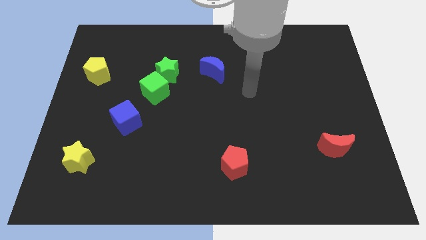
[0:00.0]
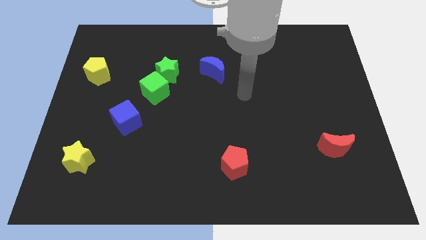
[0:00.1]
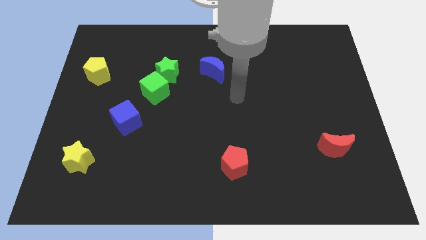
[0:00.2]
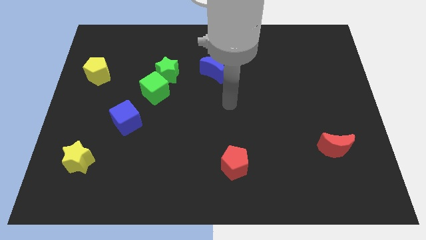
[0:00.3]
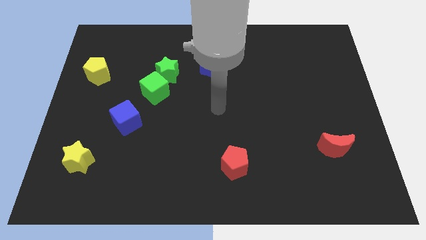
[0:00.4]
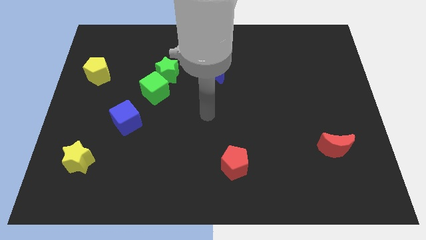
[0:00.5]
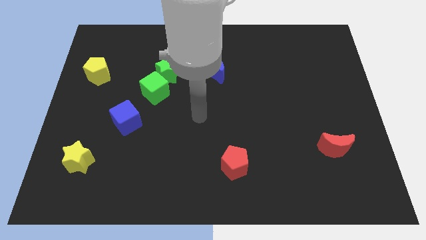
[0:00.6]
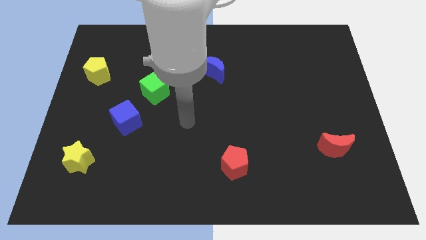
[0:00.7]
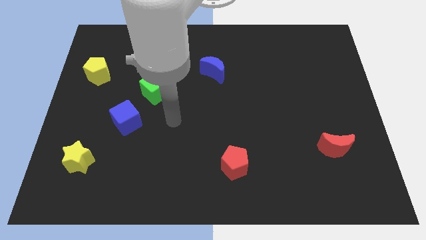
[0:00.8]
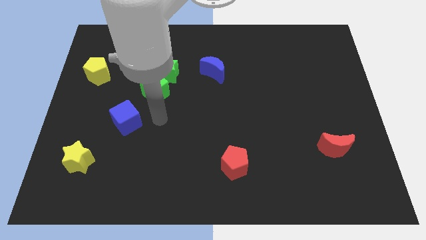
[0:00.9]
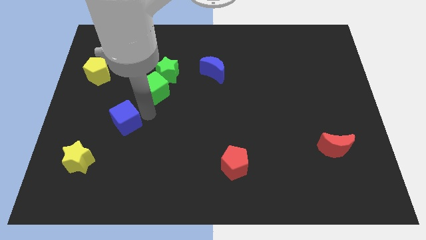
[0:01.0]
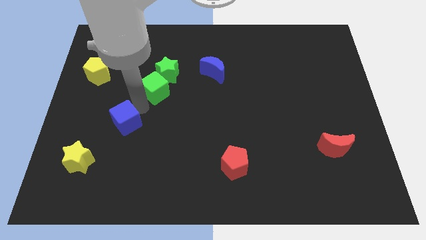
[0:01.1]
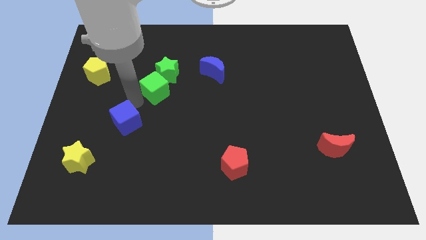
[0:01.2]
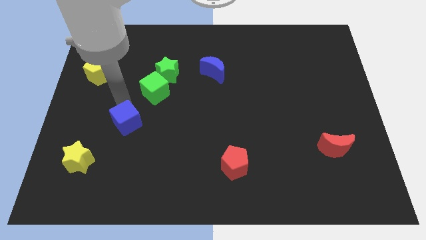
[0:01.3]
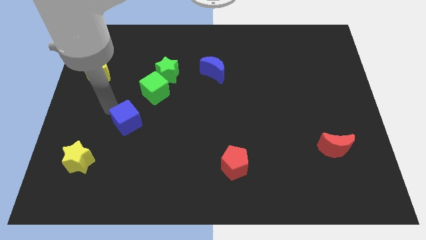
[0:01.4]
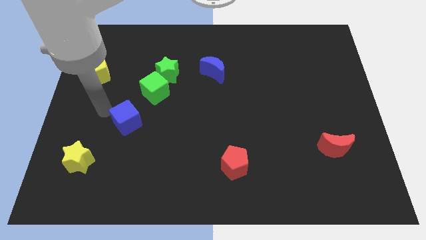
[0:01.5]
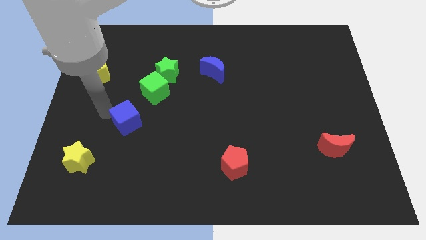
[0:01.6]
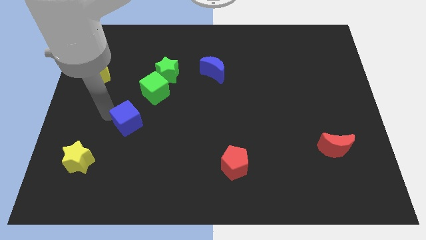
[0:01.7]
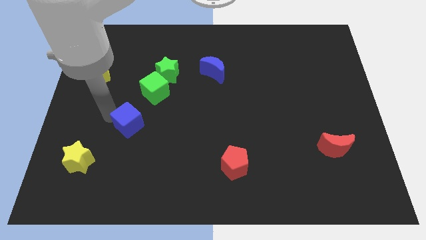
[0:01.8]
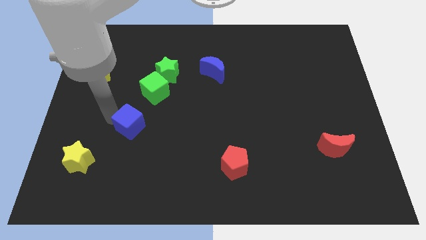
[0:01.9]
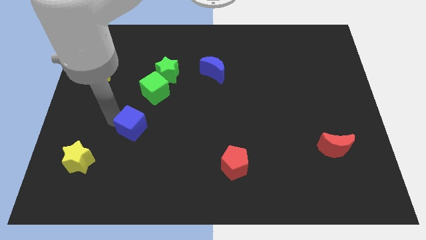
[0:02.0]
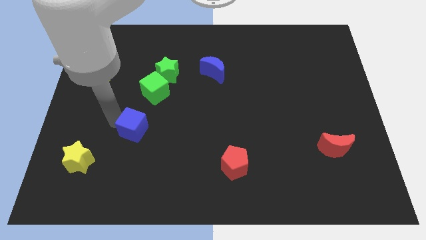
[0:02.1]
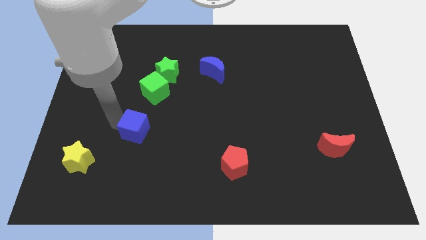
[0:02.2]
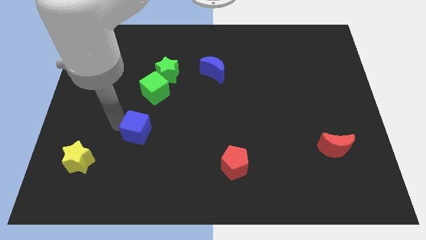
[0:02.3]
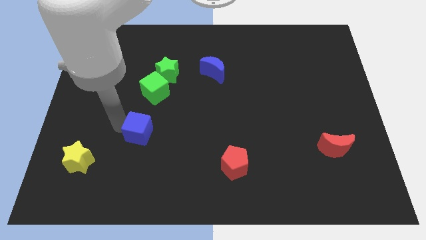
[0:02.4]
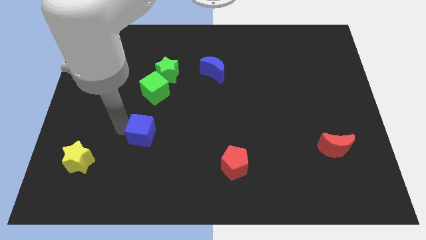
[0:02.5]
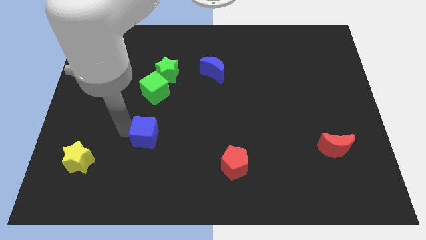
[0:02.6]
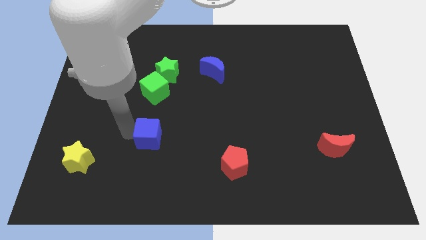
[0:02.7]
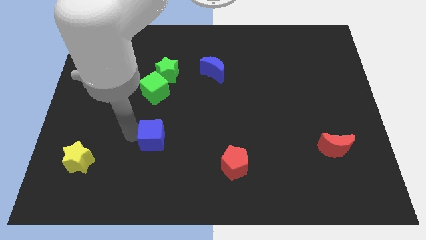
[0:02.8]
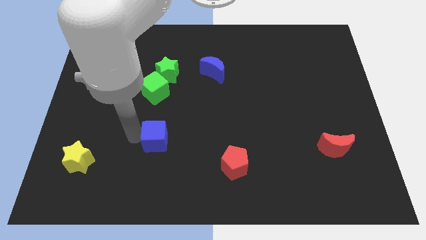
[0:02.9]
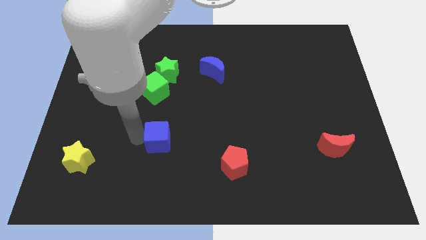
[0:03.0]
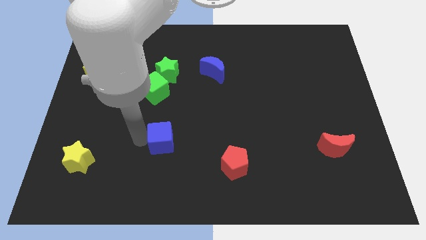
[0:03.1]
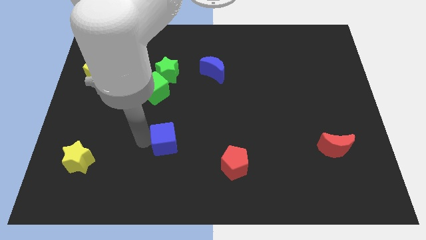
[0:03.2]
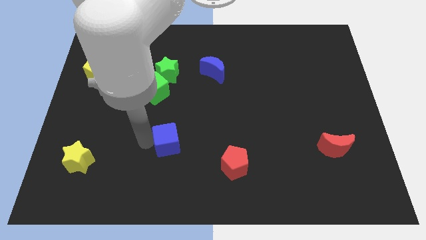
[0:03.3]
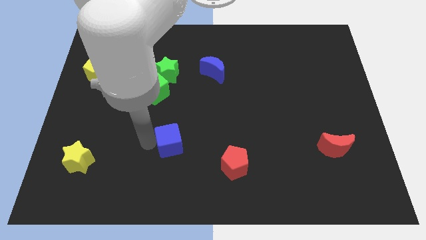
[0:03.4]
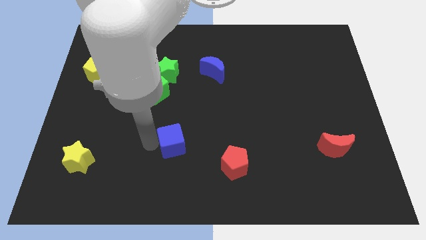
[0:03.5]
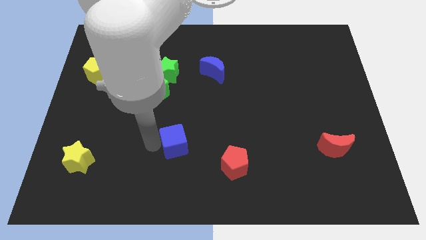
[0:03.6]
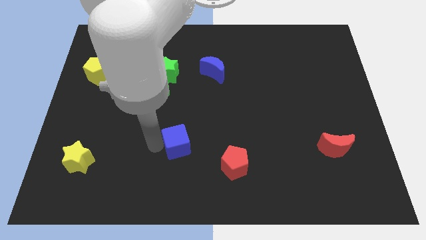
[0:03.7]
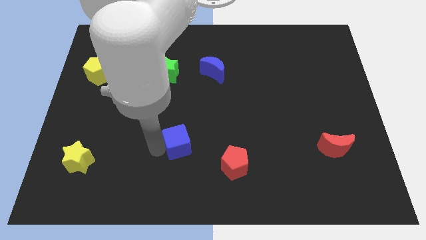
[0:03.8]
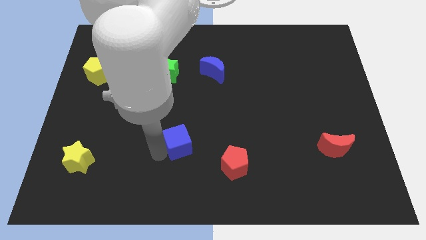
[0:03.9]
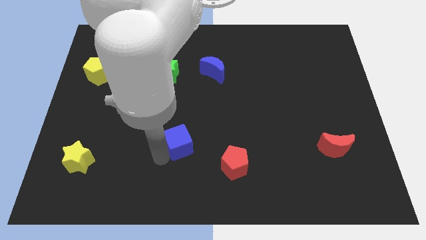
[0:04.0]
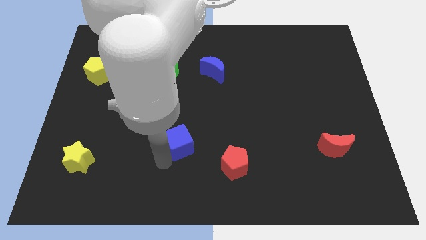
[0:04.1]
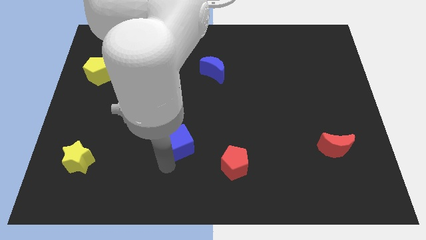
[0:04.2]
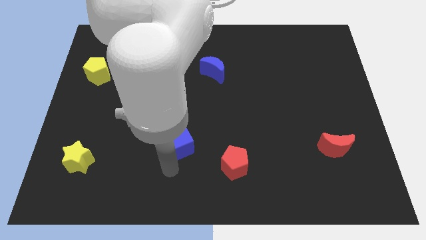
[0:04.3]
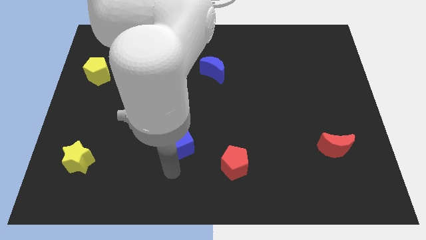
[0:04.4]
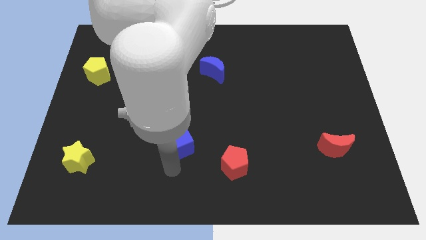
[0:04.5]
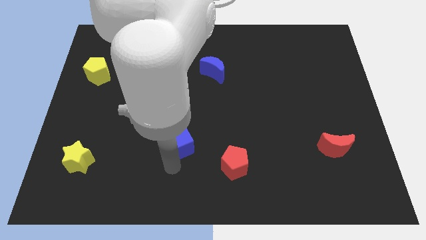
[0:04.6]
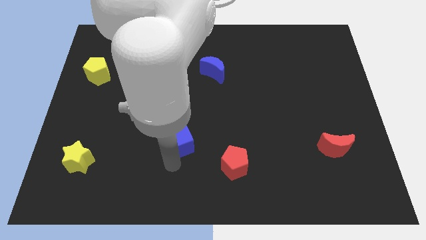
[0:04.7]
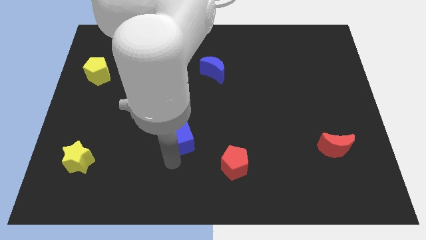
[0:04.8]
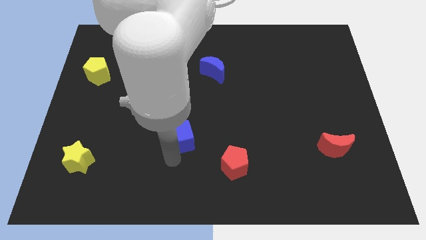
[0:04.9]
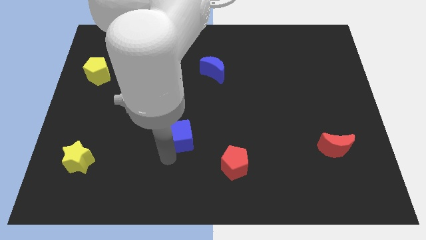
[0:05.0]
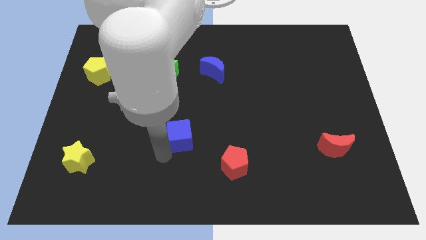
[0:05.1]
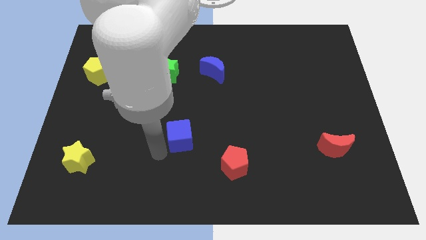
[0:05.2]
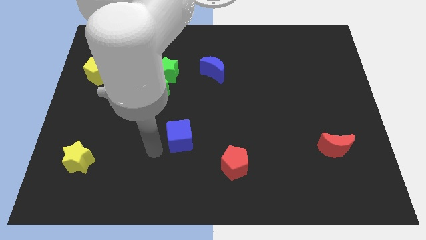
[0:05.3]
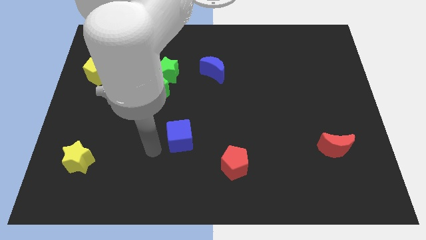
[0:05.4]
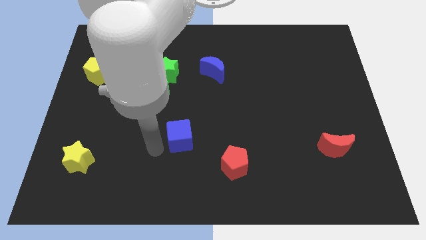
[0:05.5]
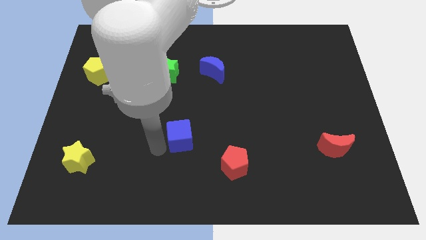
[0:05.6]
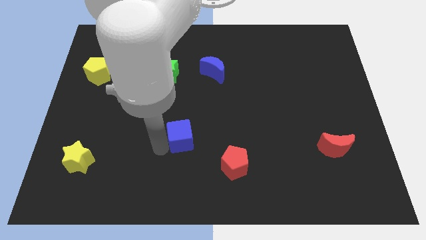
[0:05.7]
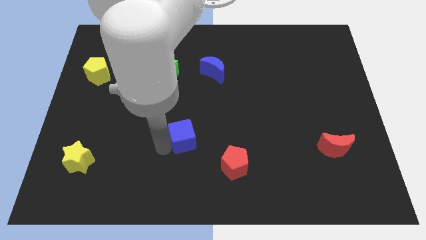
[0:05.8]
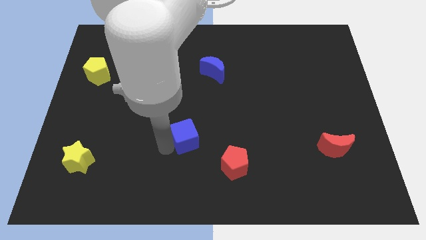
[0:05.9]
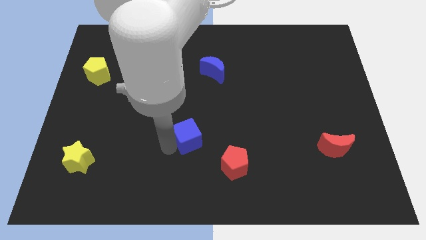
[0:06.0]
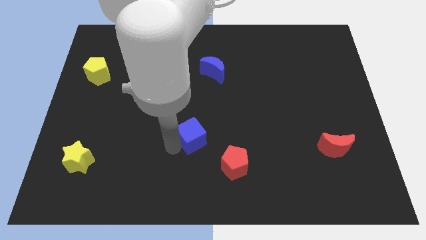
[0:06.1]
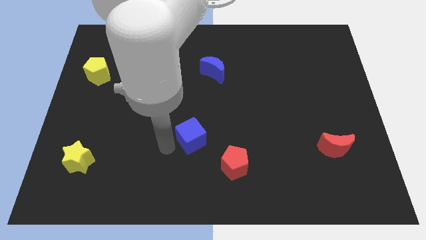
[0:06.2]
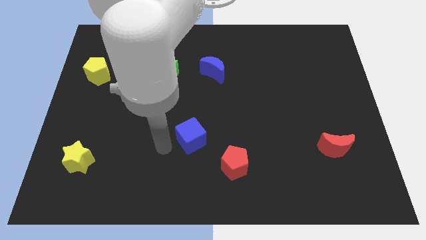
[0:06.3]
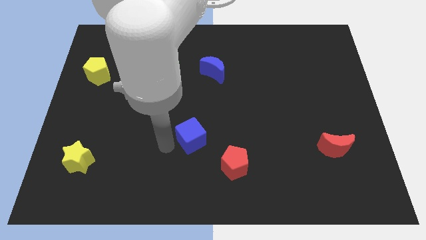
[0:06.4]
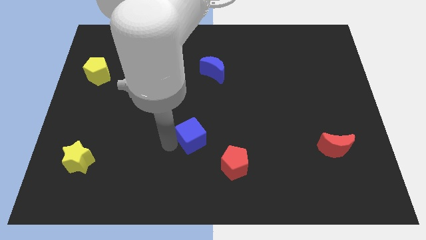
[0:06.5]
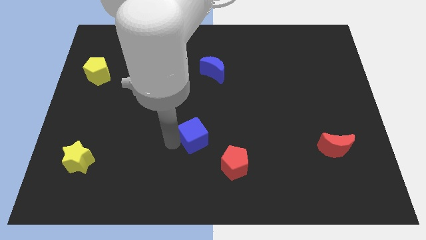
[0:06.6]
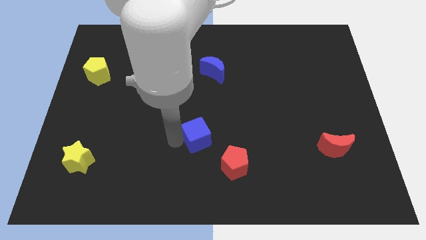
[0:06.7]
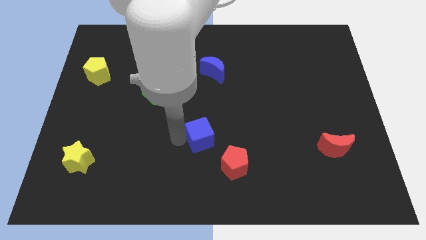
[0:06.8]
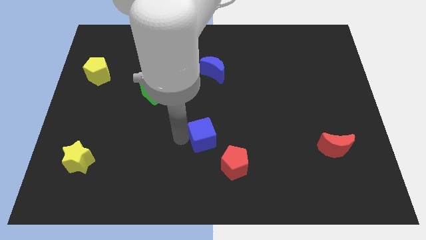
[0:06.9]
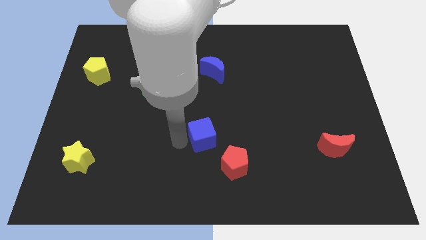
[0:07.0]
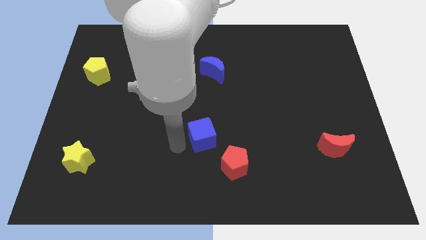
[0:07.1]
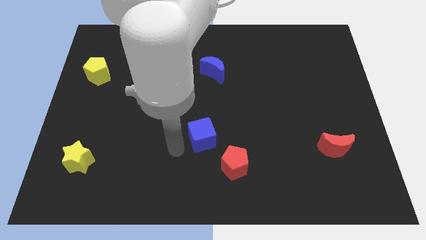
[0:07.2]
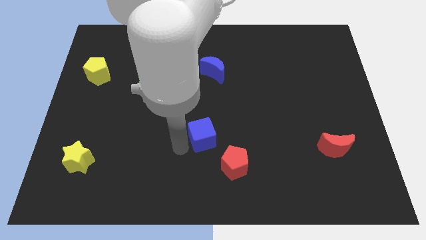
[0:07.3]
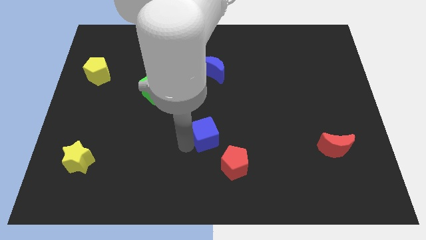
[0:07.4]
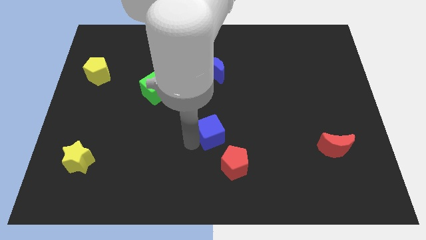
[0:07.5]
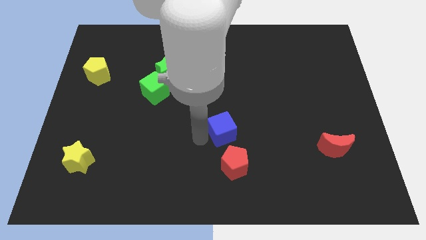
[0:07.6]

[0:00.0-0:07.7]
slide the blue cube right

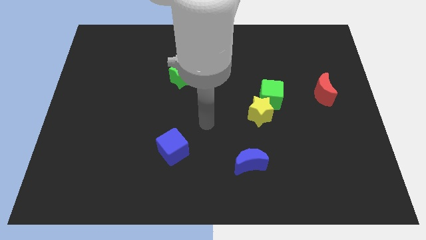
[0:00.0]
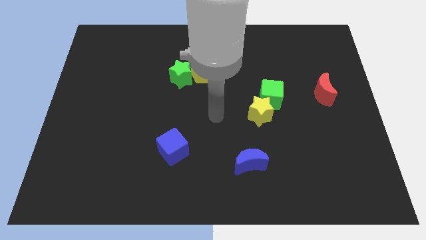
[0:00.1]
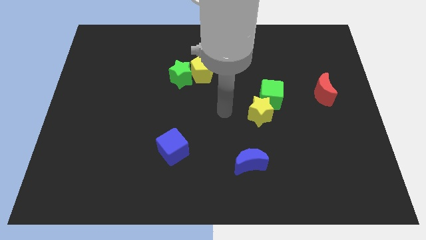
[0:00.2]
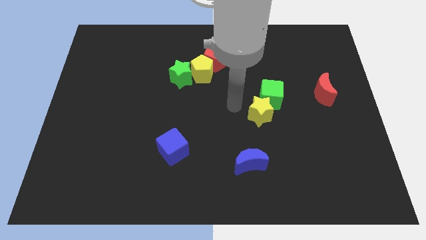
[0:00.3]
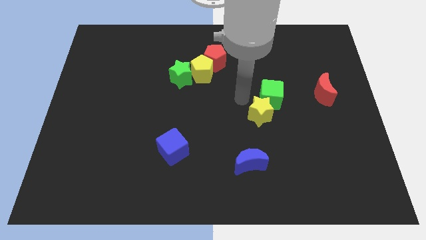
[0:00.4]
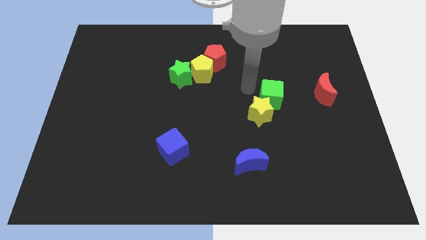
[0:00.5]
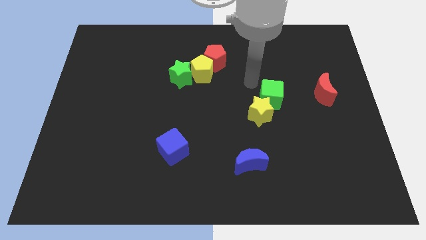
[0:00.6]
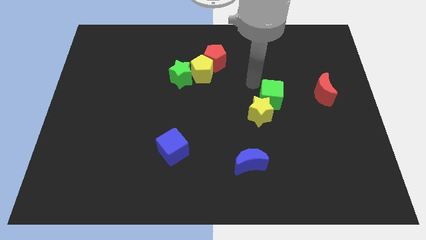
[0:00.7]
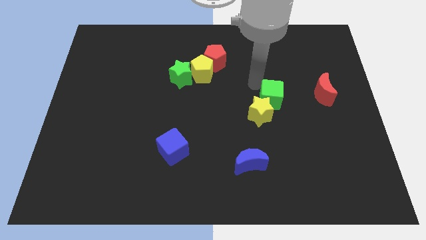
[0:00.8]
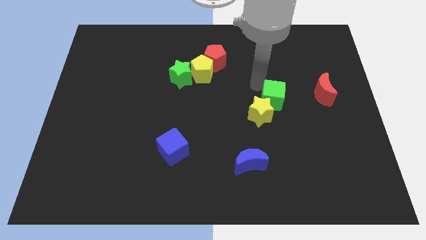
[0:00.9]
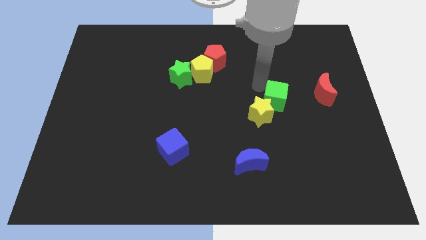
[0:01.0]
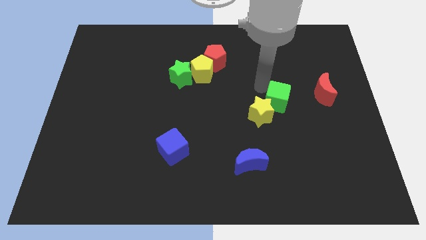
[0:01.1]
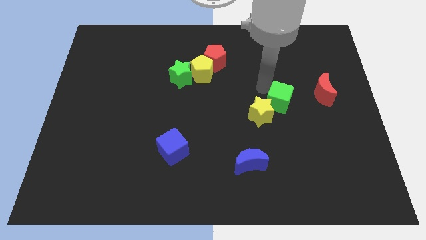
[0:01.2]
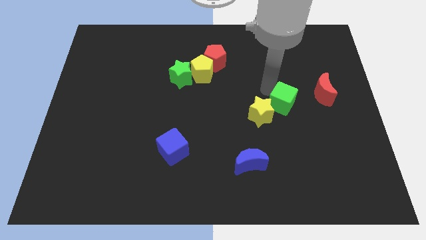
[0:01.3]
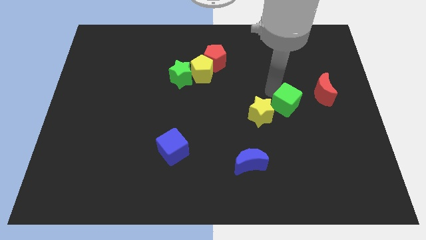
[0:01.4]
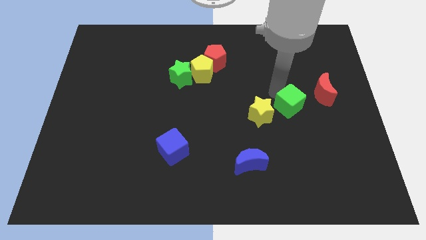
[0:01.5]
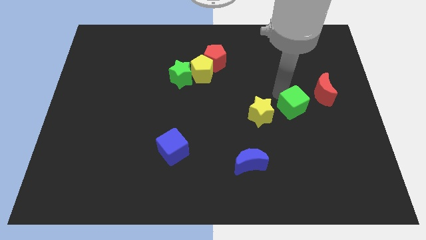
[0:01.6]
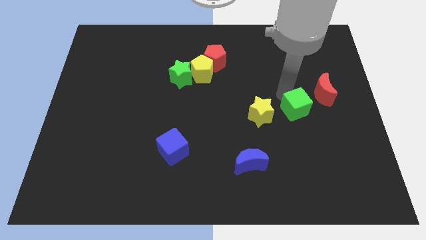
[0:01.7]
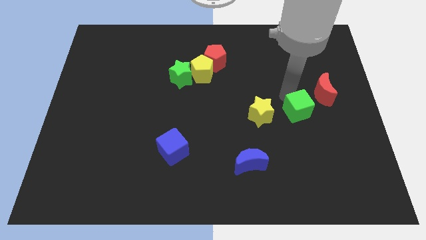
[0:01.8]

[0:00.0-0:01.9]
slightly move the green cube down and to the right diagonally
